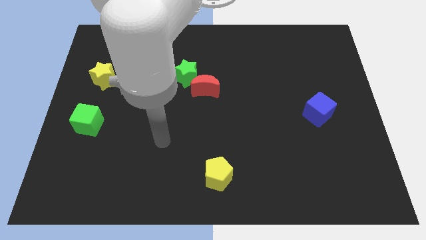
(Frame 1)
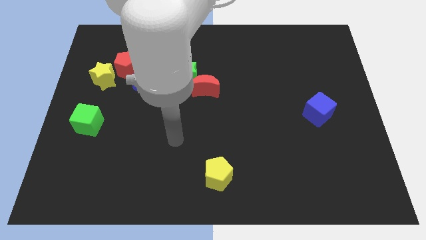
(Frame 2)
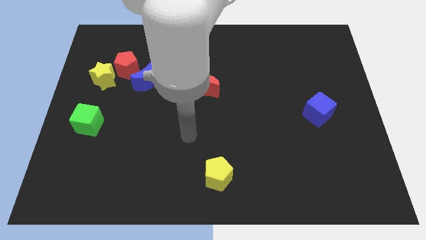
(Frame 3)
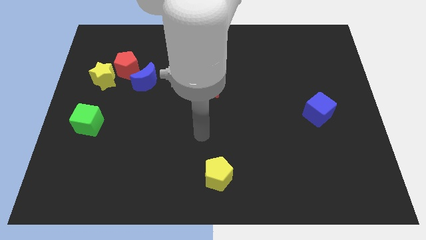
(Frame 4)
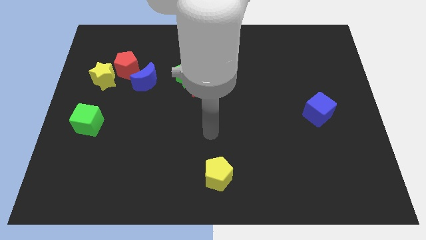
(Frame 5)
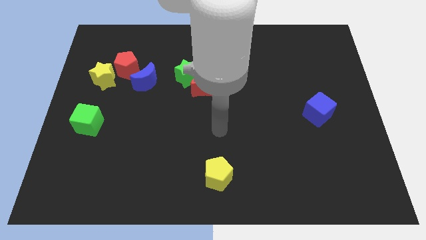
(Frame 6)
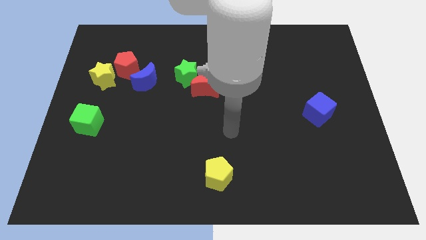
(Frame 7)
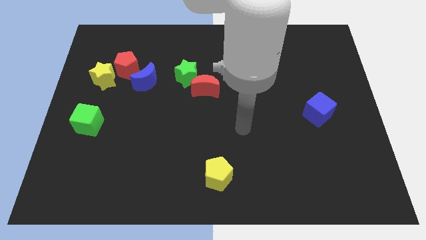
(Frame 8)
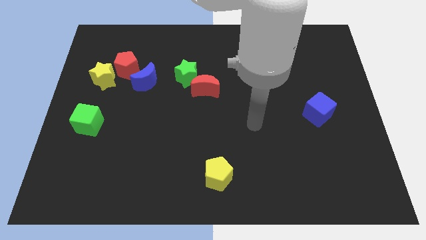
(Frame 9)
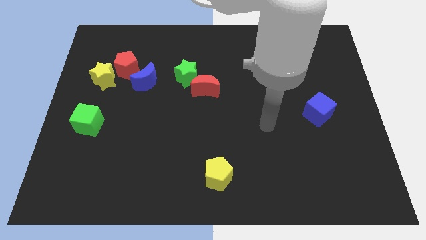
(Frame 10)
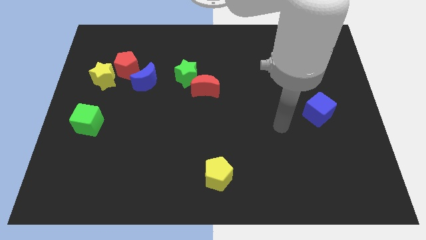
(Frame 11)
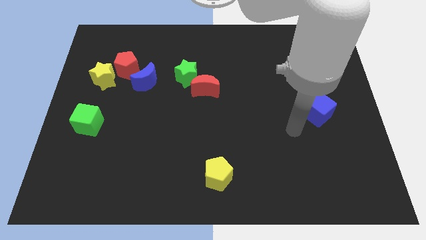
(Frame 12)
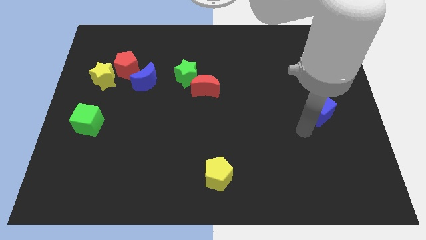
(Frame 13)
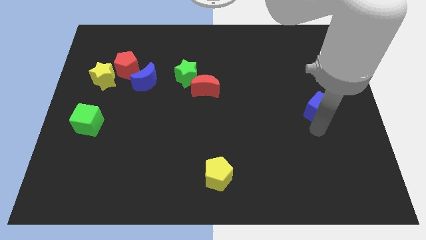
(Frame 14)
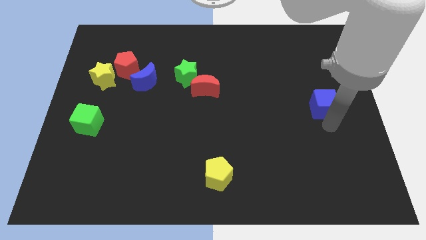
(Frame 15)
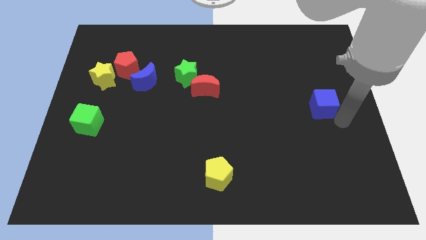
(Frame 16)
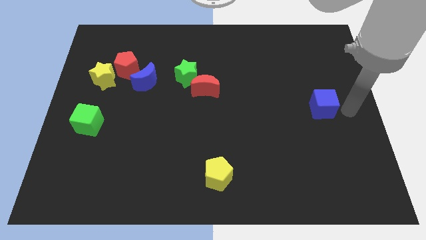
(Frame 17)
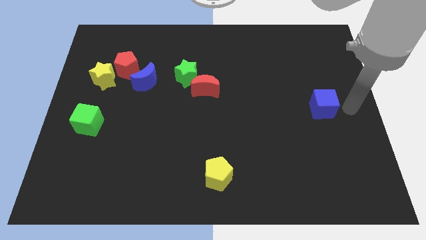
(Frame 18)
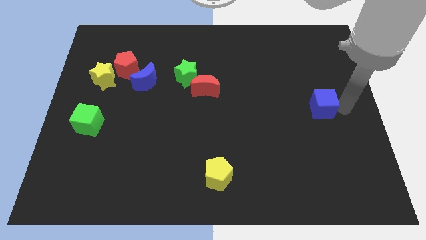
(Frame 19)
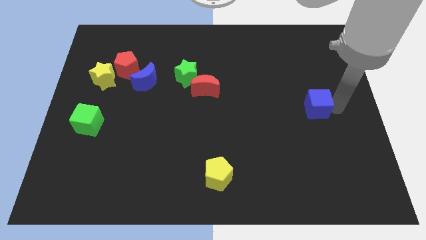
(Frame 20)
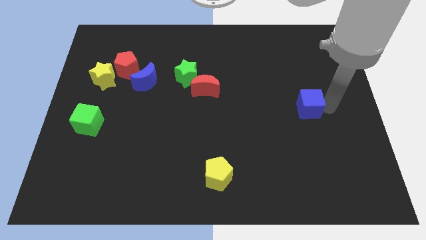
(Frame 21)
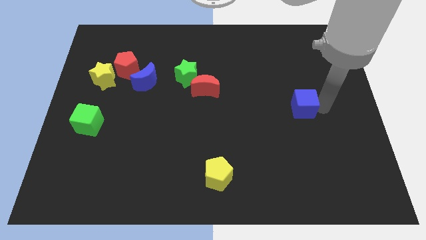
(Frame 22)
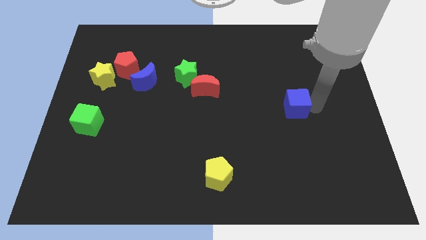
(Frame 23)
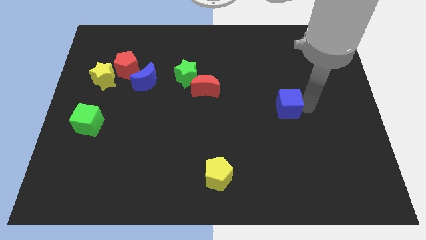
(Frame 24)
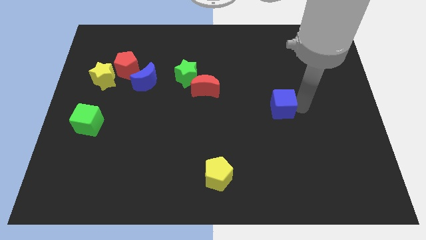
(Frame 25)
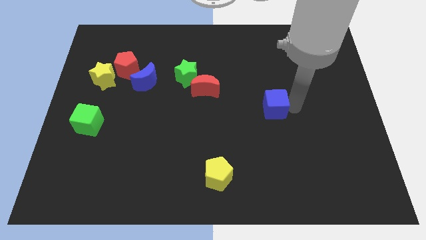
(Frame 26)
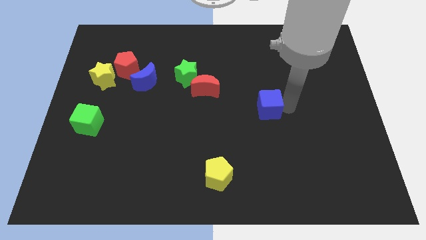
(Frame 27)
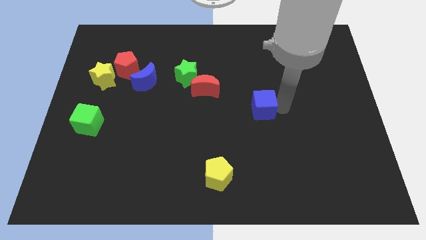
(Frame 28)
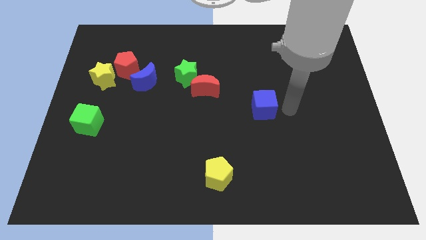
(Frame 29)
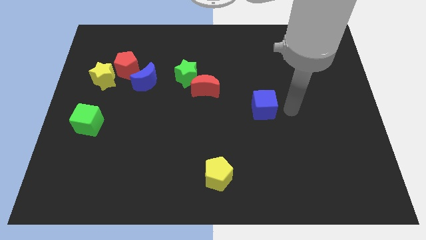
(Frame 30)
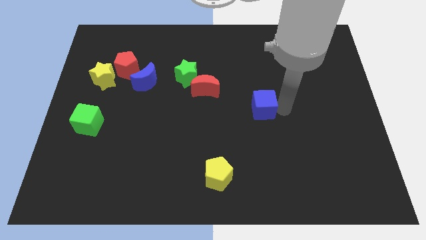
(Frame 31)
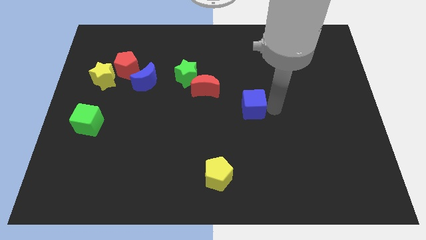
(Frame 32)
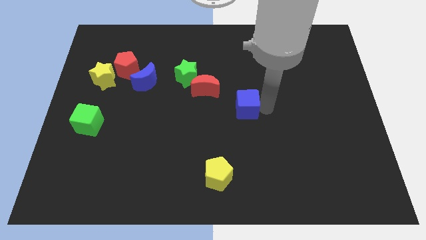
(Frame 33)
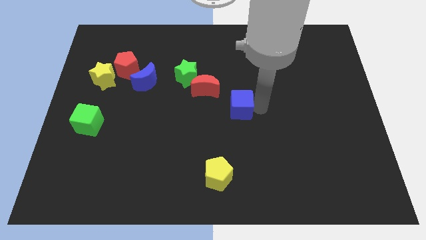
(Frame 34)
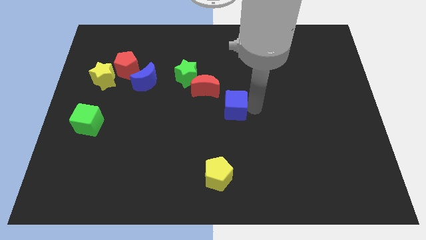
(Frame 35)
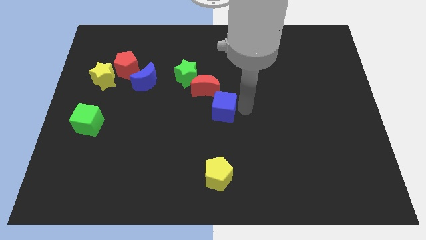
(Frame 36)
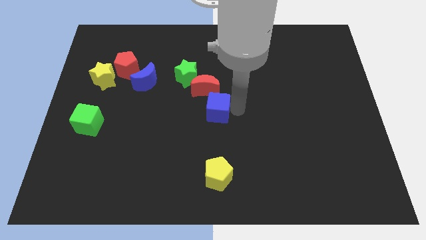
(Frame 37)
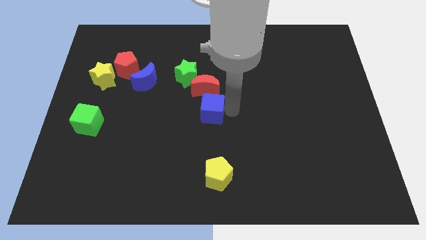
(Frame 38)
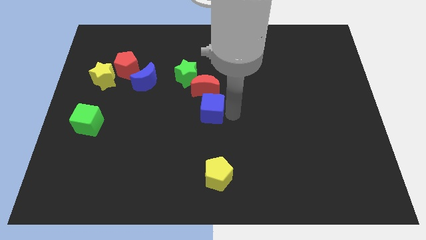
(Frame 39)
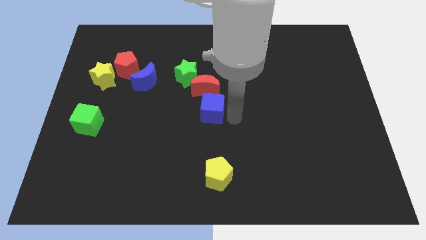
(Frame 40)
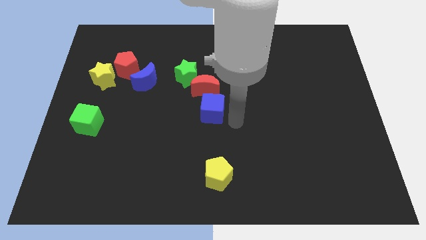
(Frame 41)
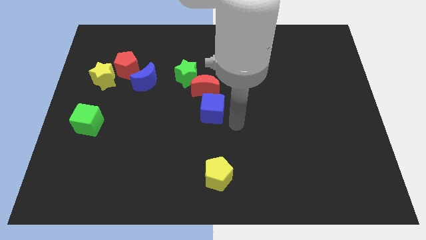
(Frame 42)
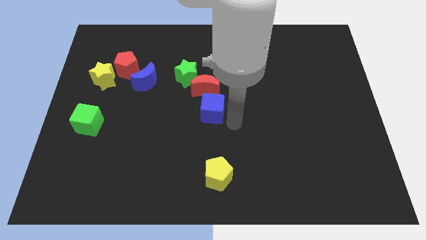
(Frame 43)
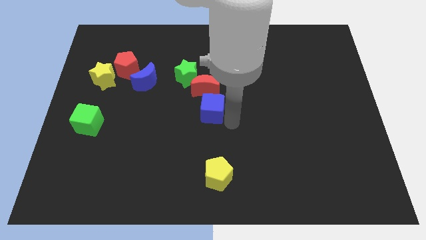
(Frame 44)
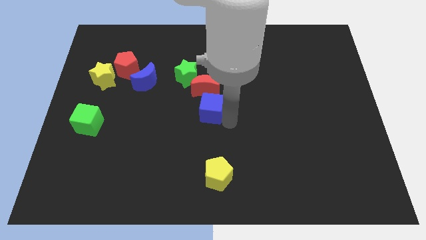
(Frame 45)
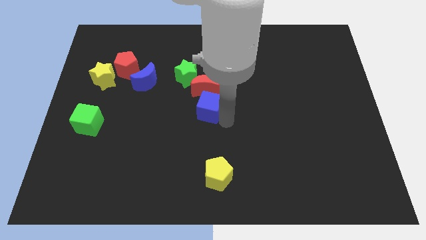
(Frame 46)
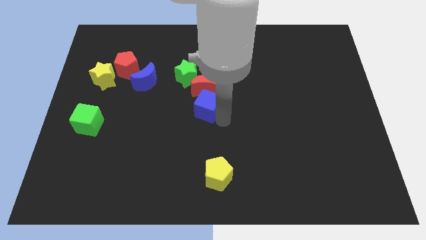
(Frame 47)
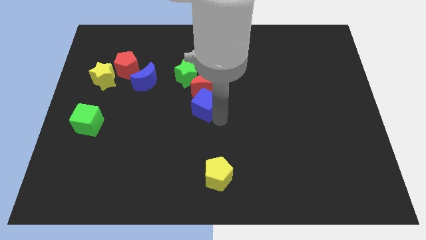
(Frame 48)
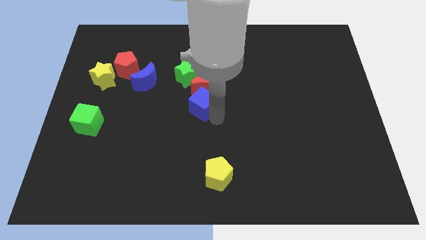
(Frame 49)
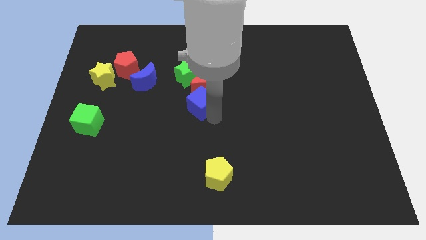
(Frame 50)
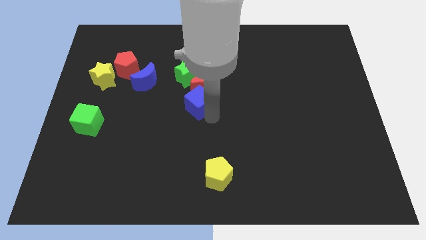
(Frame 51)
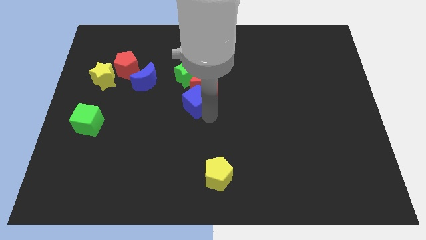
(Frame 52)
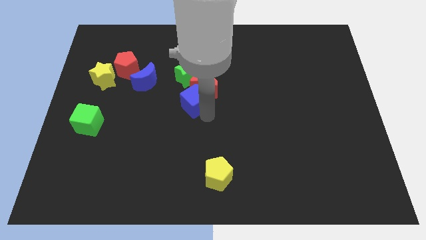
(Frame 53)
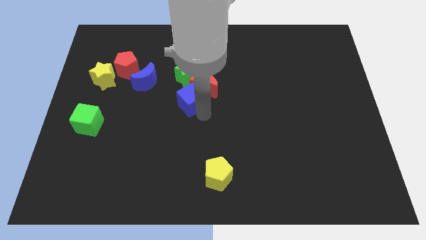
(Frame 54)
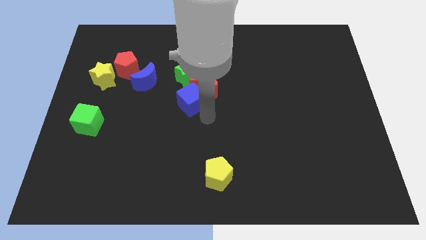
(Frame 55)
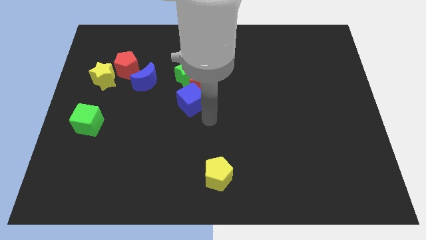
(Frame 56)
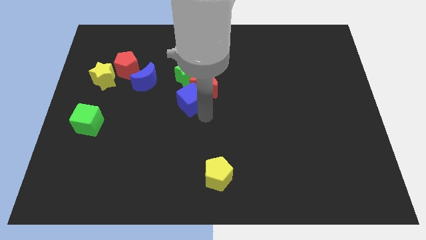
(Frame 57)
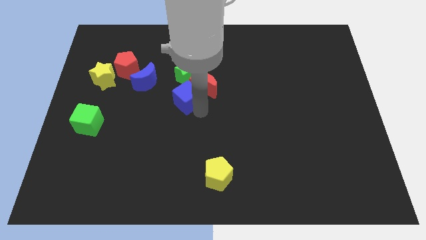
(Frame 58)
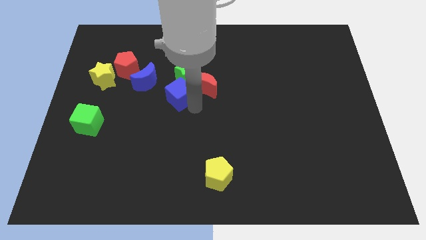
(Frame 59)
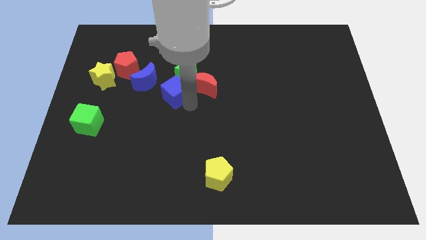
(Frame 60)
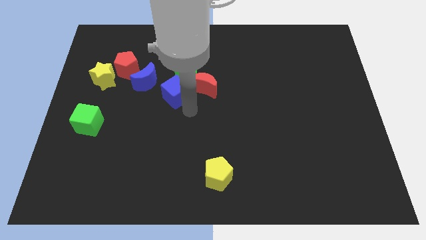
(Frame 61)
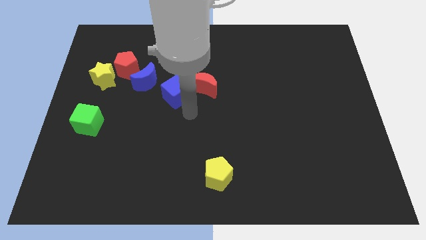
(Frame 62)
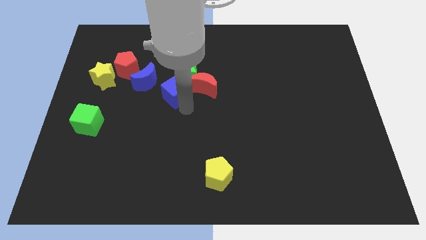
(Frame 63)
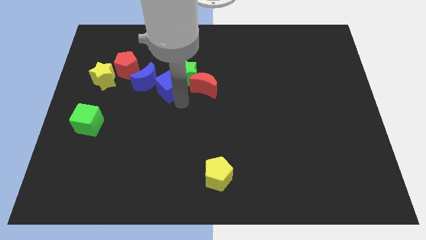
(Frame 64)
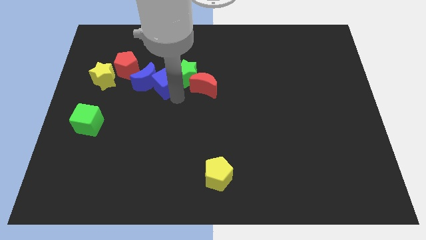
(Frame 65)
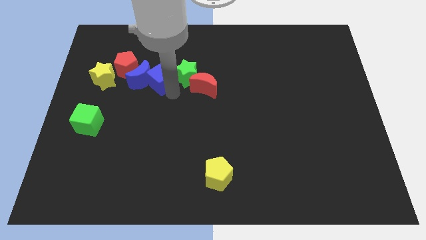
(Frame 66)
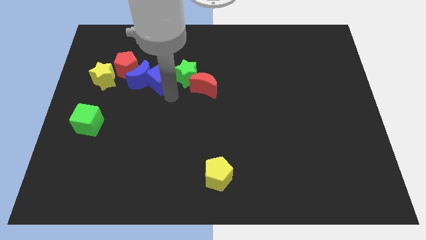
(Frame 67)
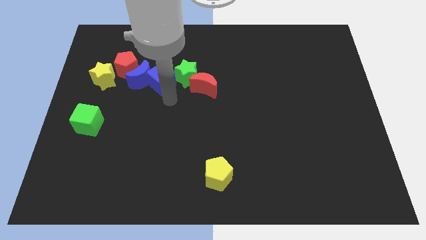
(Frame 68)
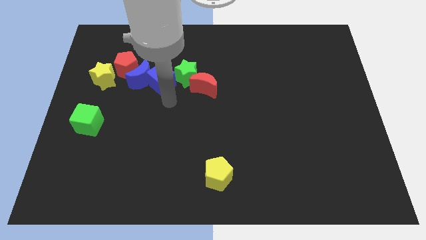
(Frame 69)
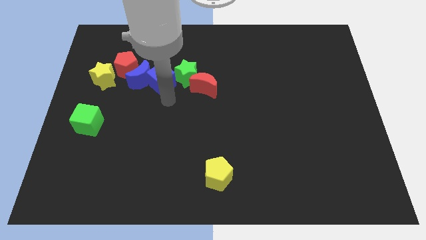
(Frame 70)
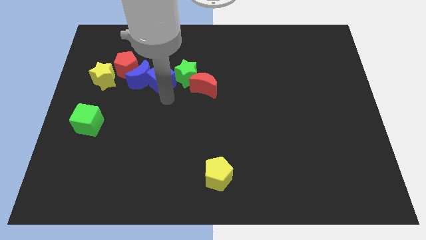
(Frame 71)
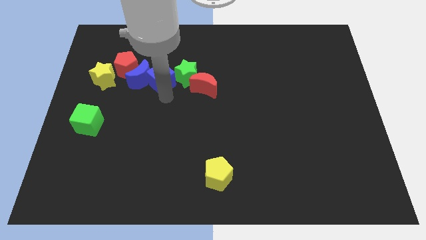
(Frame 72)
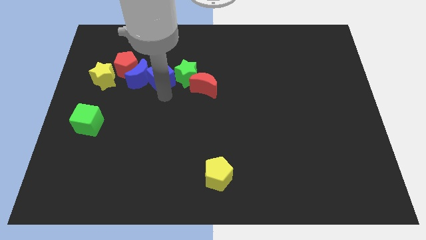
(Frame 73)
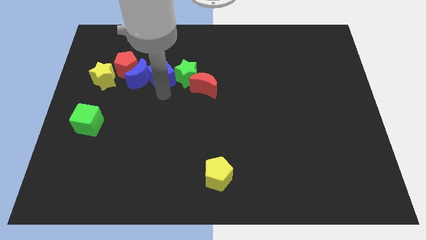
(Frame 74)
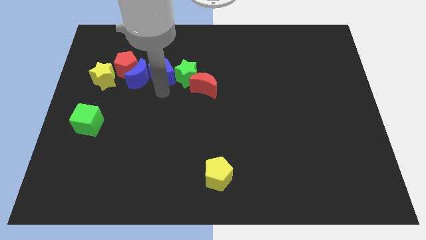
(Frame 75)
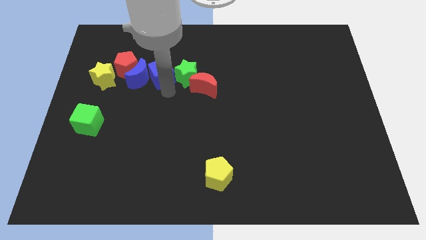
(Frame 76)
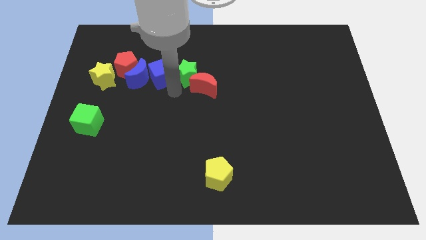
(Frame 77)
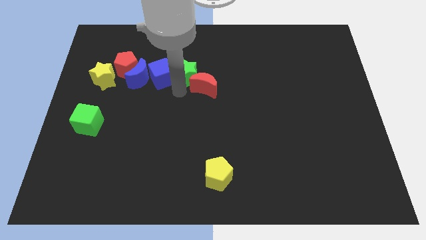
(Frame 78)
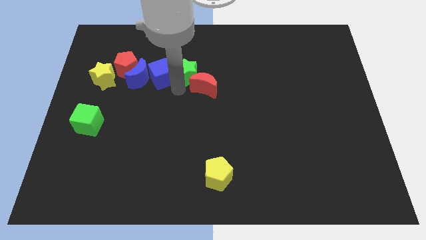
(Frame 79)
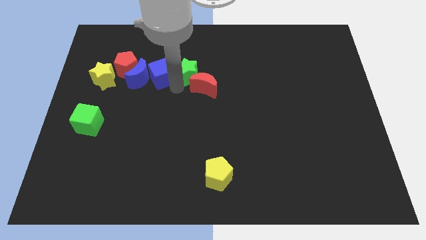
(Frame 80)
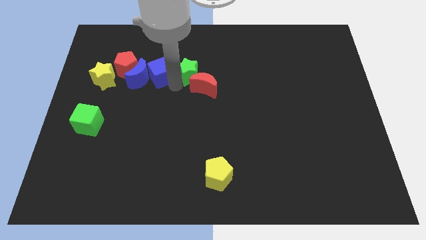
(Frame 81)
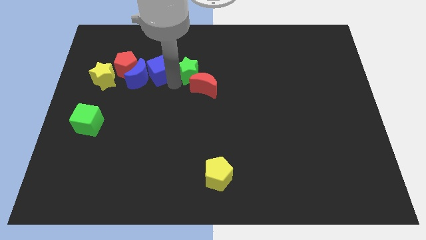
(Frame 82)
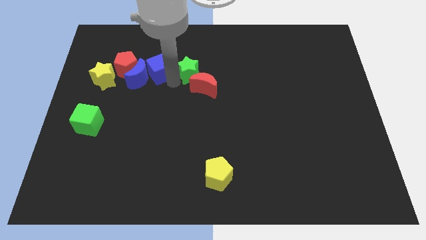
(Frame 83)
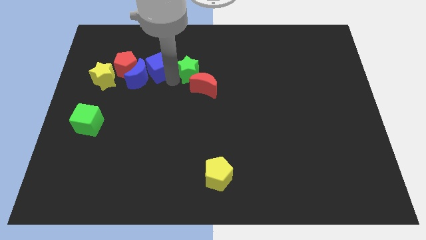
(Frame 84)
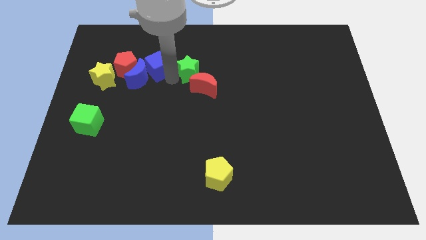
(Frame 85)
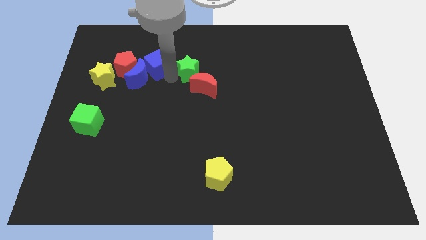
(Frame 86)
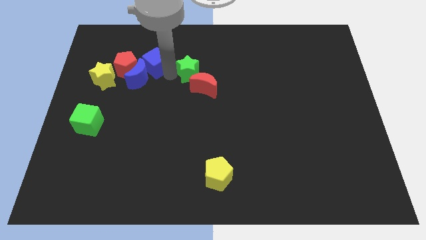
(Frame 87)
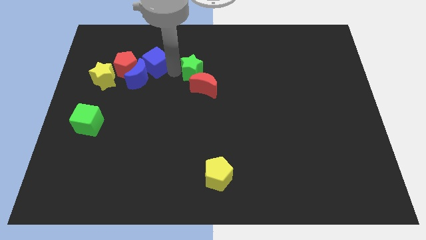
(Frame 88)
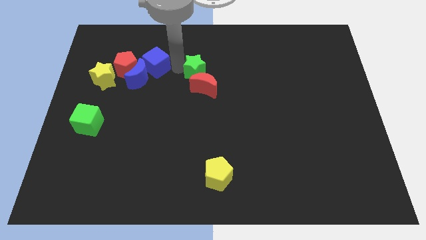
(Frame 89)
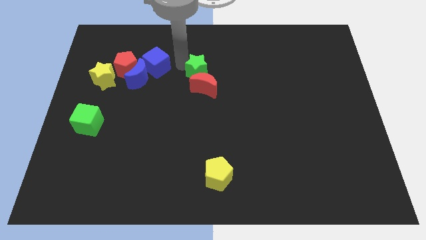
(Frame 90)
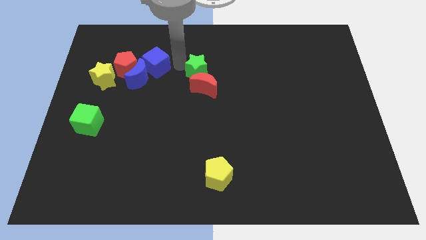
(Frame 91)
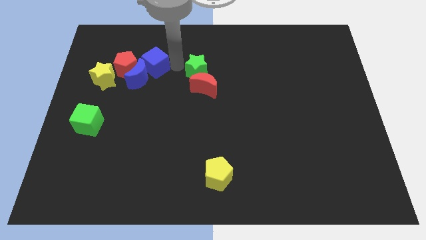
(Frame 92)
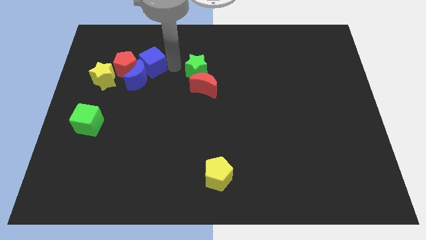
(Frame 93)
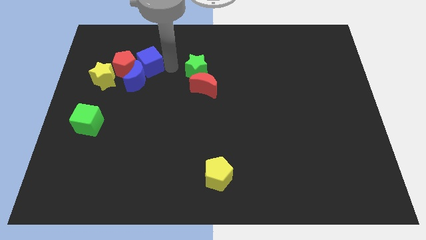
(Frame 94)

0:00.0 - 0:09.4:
slide the blue cube towards the red pentagon
